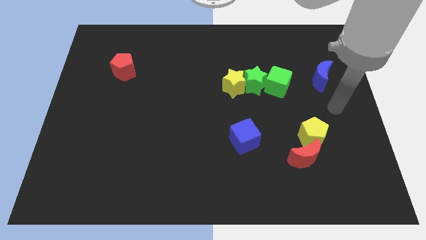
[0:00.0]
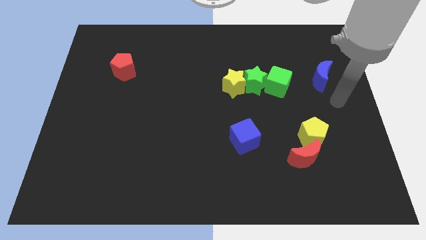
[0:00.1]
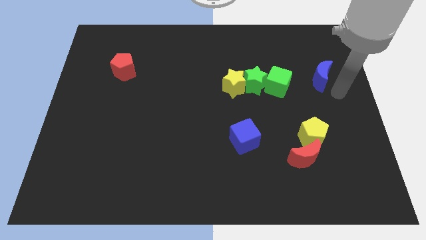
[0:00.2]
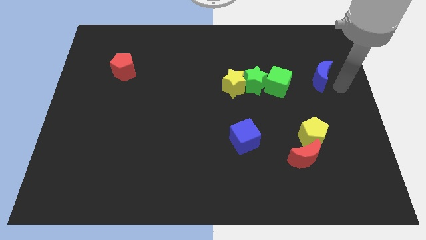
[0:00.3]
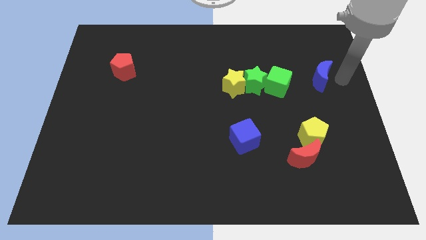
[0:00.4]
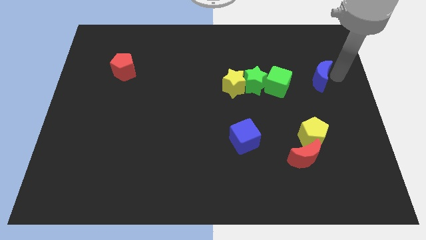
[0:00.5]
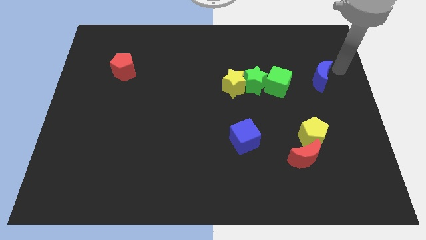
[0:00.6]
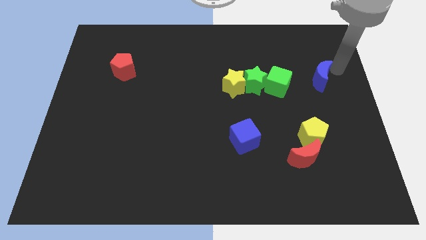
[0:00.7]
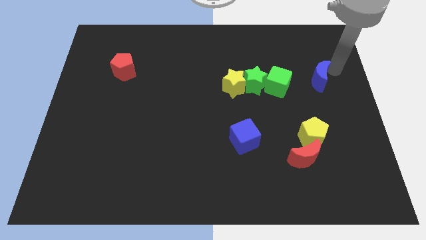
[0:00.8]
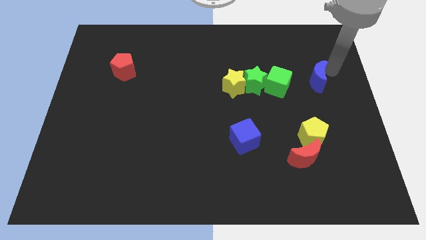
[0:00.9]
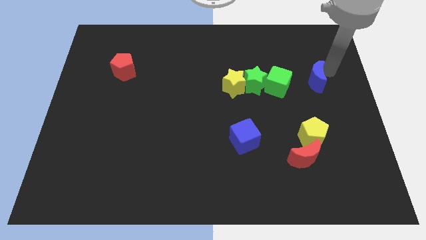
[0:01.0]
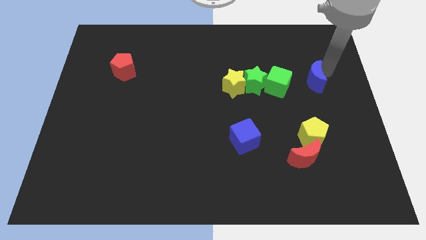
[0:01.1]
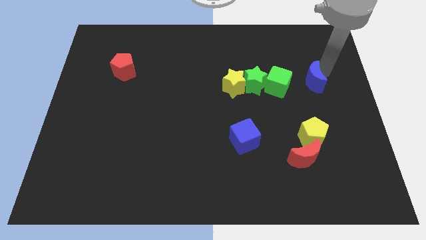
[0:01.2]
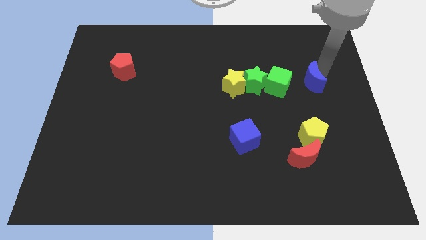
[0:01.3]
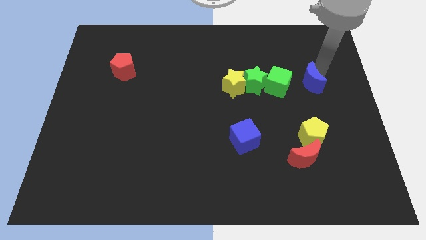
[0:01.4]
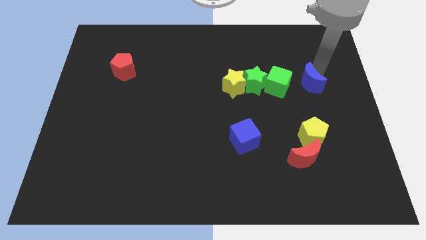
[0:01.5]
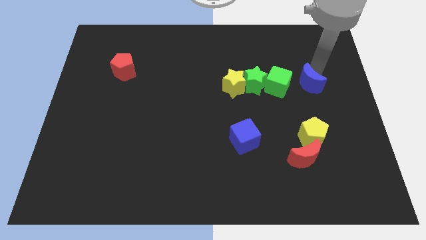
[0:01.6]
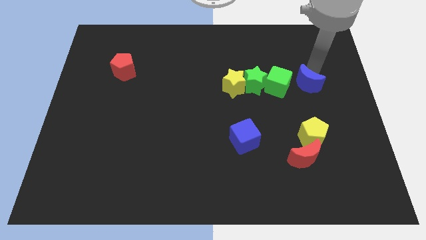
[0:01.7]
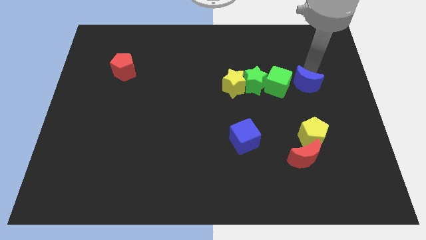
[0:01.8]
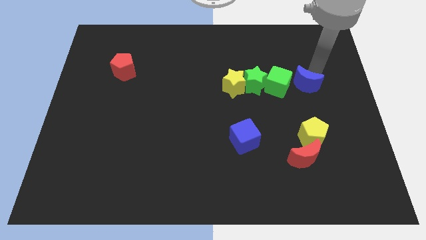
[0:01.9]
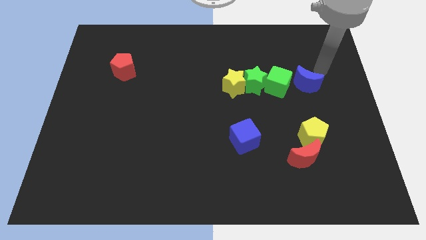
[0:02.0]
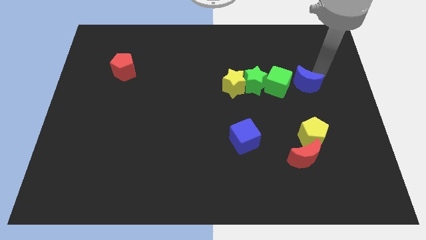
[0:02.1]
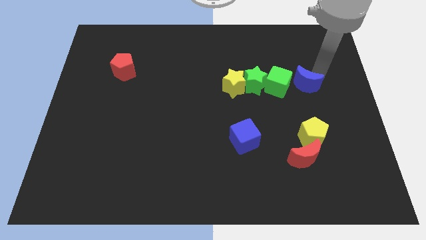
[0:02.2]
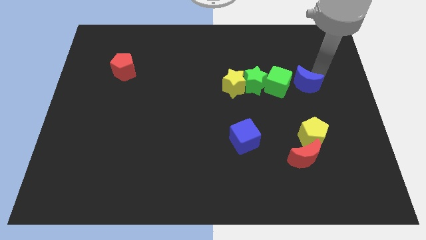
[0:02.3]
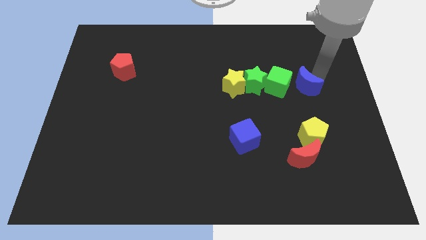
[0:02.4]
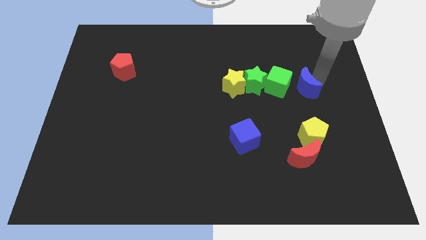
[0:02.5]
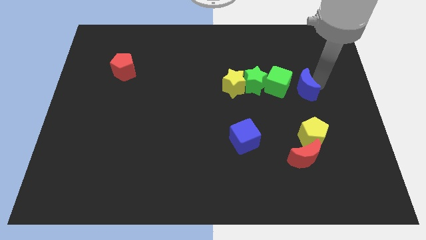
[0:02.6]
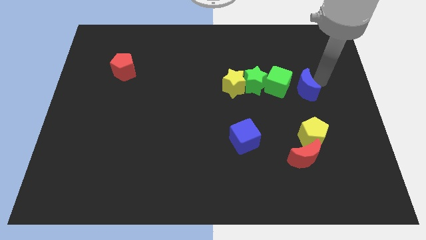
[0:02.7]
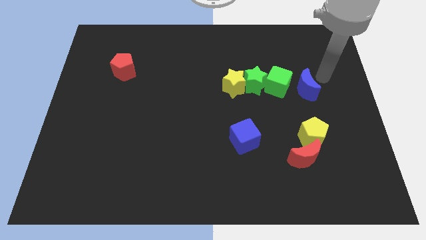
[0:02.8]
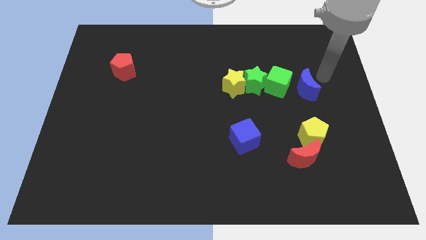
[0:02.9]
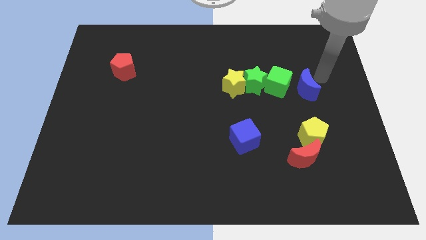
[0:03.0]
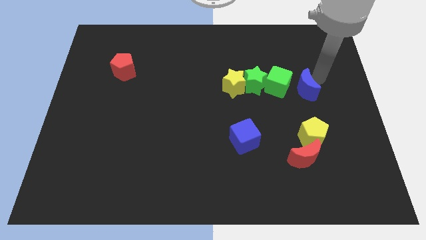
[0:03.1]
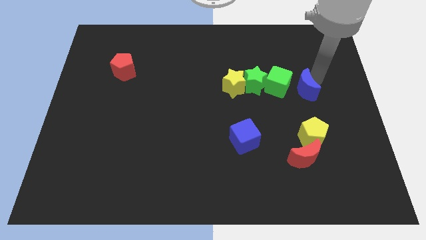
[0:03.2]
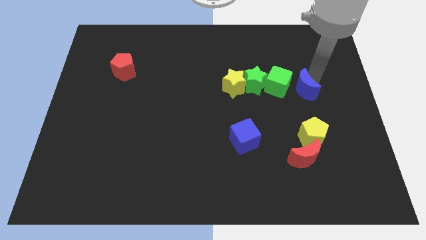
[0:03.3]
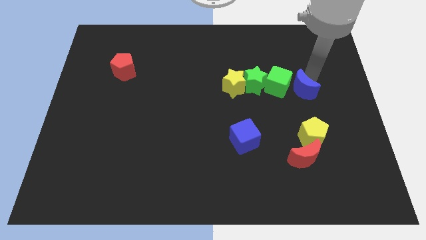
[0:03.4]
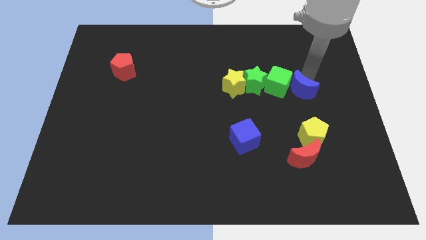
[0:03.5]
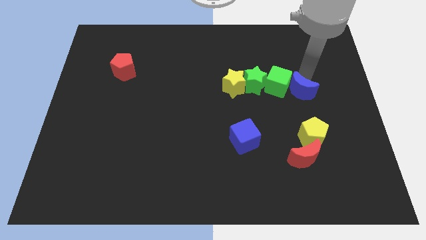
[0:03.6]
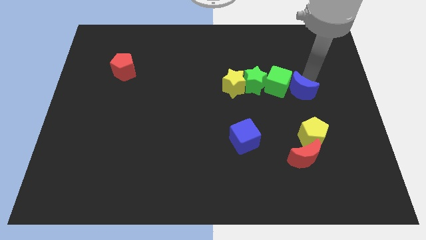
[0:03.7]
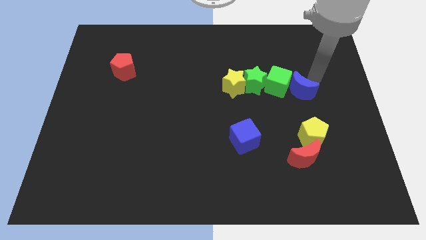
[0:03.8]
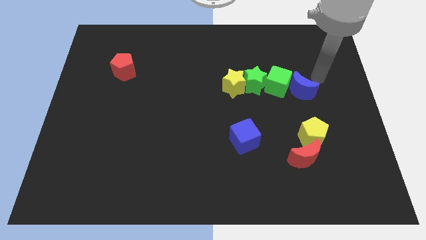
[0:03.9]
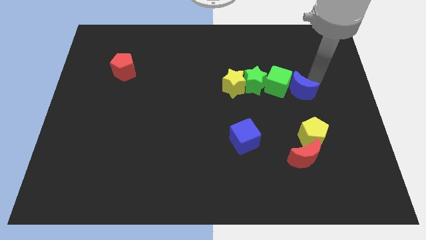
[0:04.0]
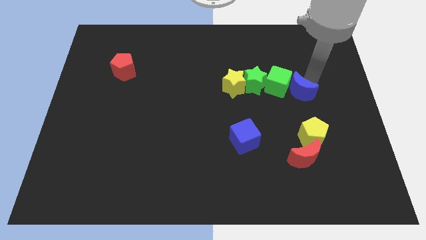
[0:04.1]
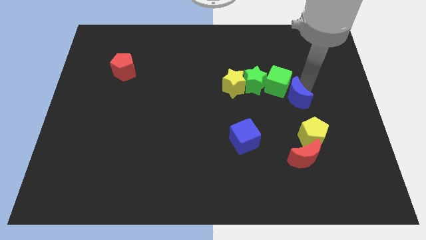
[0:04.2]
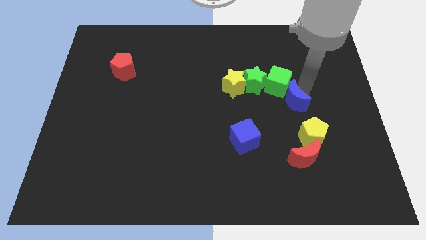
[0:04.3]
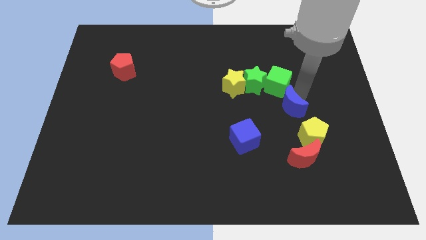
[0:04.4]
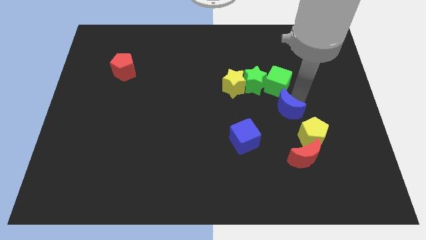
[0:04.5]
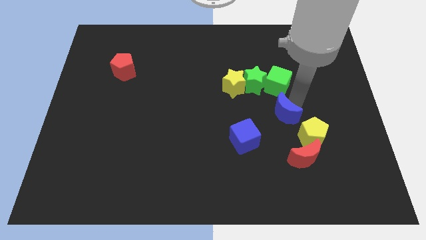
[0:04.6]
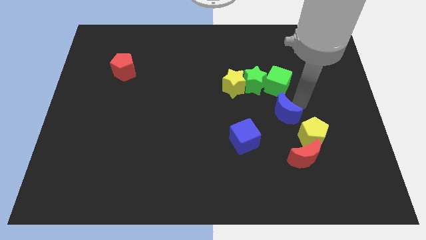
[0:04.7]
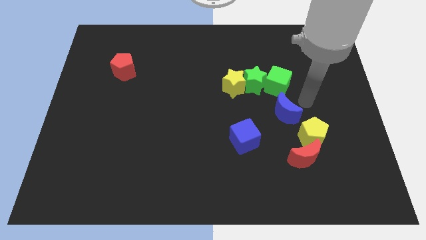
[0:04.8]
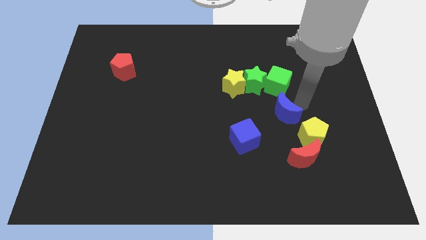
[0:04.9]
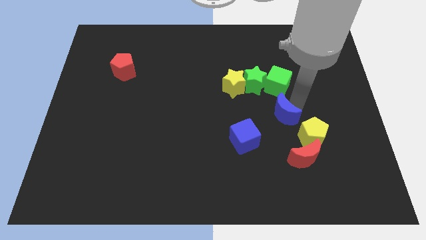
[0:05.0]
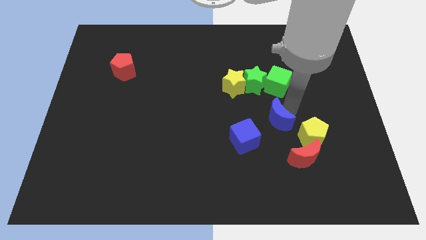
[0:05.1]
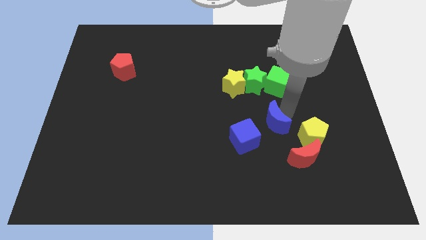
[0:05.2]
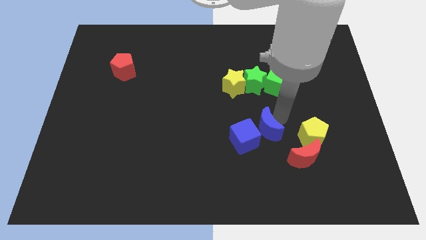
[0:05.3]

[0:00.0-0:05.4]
push the blue moon next to the blue cube

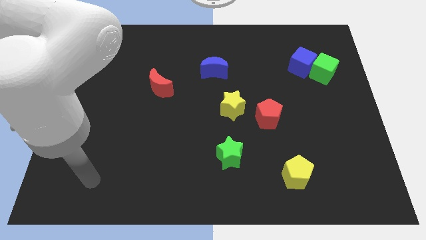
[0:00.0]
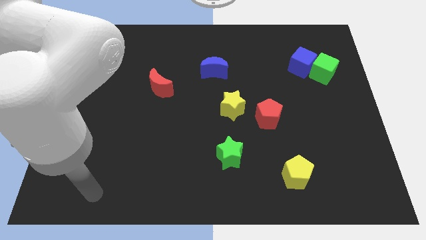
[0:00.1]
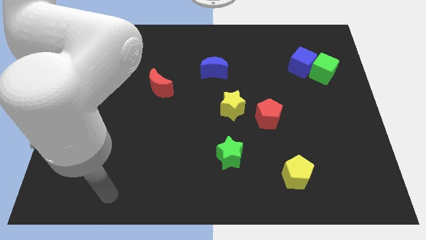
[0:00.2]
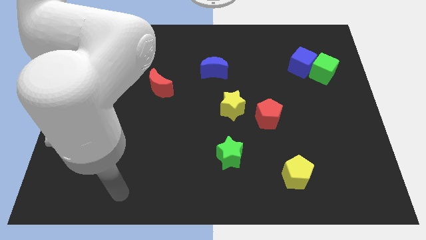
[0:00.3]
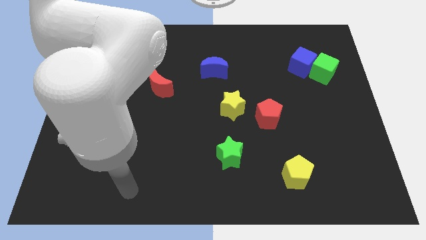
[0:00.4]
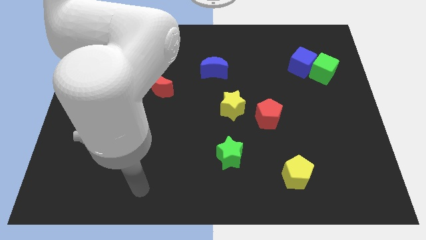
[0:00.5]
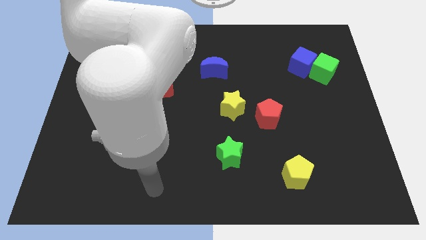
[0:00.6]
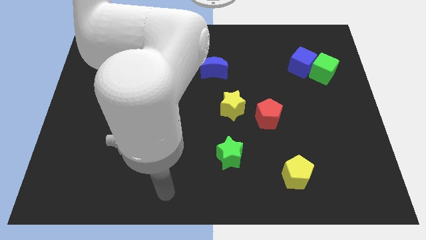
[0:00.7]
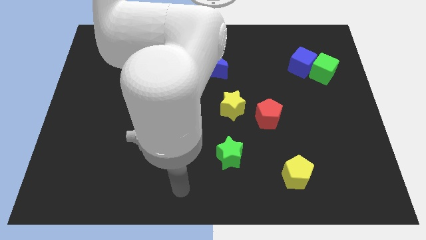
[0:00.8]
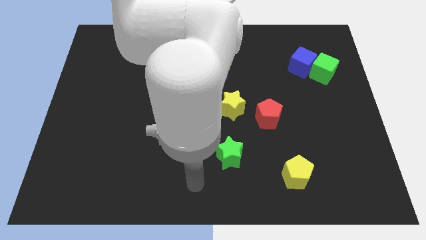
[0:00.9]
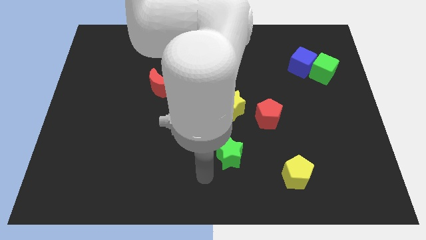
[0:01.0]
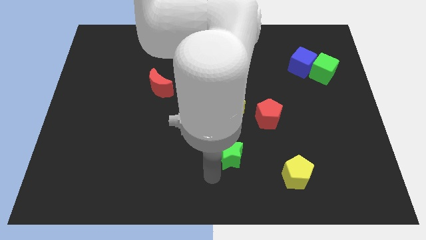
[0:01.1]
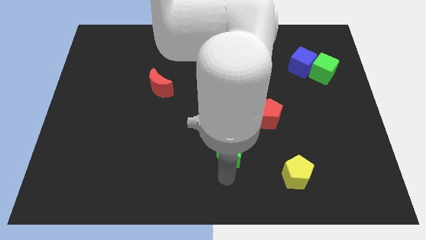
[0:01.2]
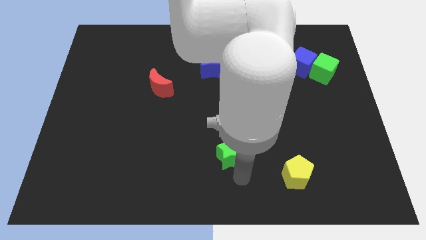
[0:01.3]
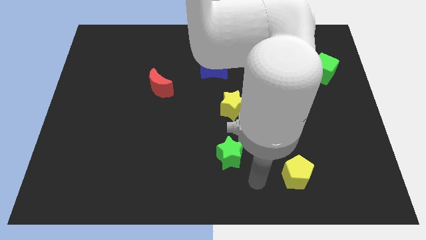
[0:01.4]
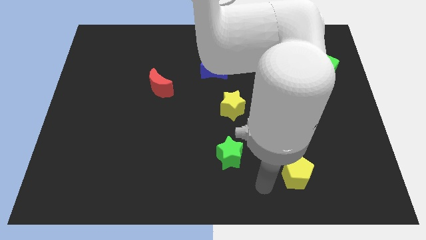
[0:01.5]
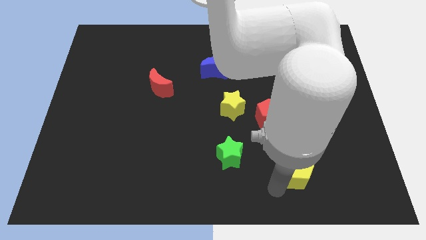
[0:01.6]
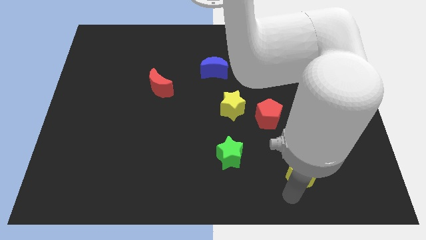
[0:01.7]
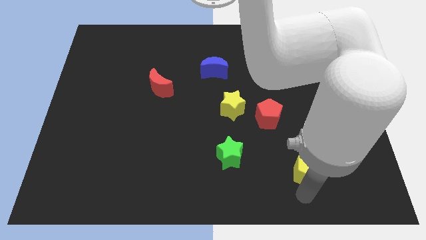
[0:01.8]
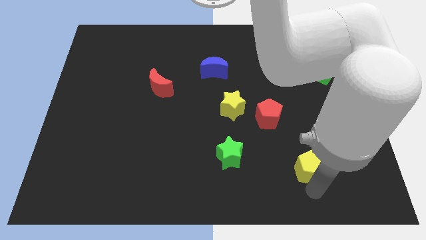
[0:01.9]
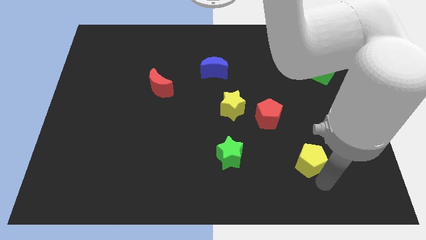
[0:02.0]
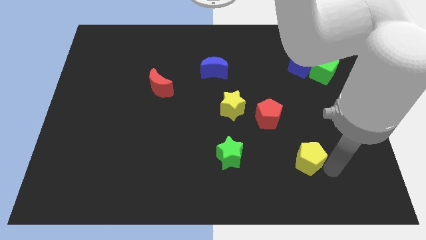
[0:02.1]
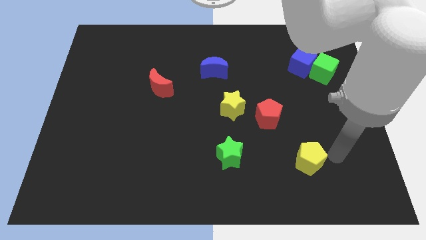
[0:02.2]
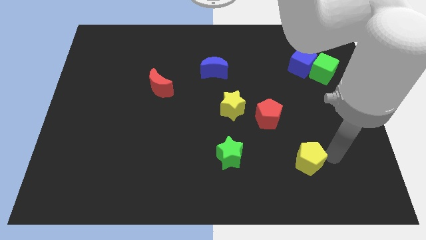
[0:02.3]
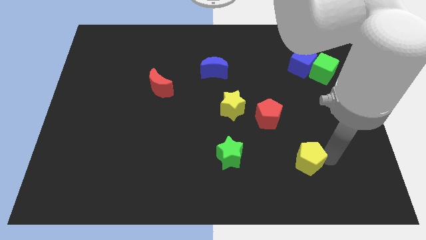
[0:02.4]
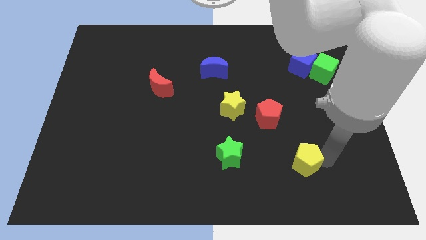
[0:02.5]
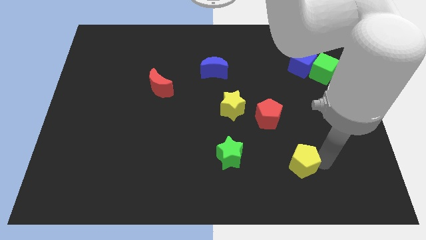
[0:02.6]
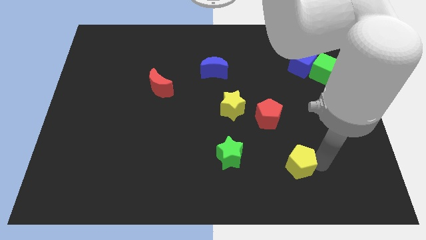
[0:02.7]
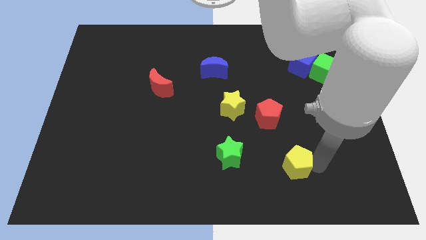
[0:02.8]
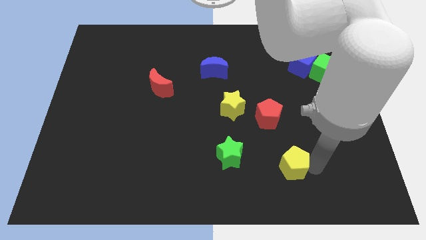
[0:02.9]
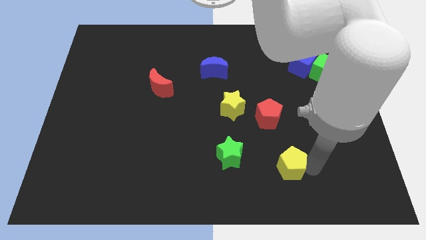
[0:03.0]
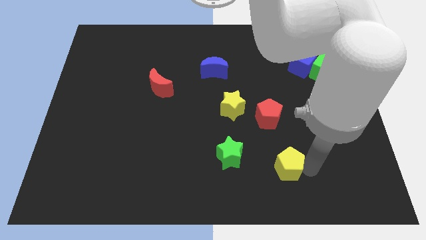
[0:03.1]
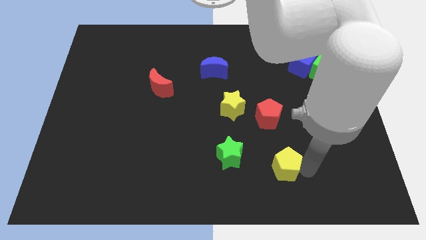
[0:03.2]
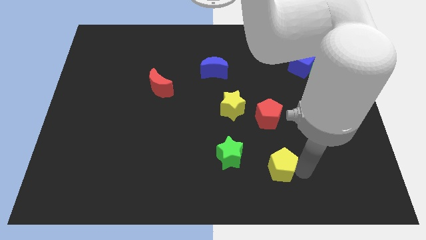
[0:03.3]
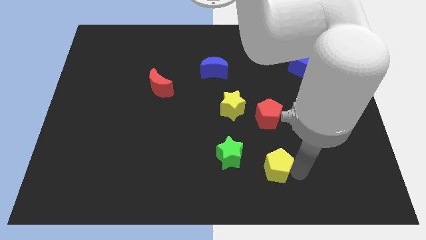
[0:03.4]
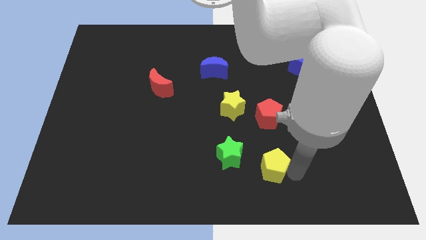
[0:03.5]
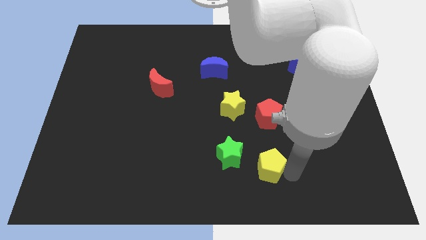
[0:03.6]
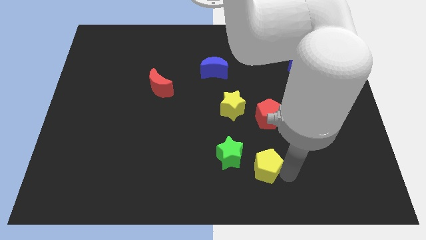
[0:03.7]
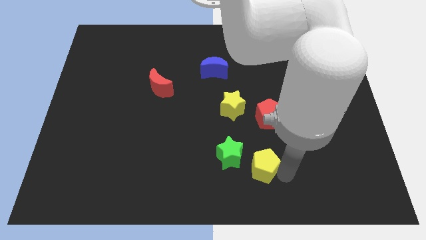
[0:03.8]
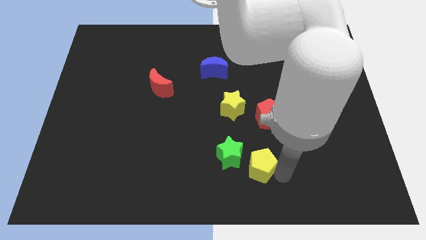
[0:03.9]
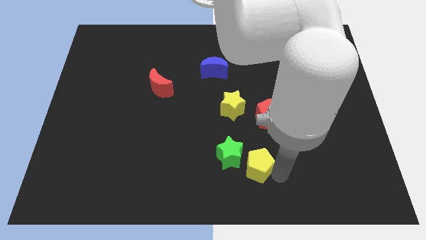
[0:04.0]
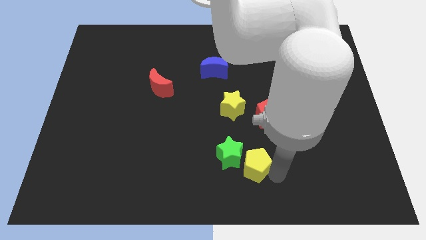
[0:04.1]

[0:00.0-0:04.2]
put the yellow pentagon to the green star
